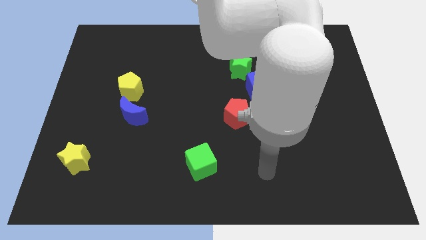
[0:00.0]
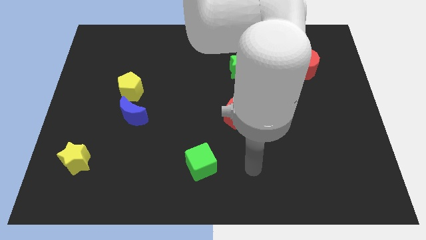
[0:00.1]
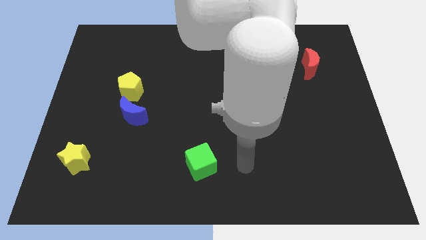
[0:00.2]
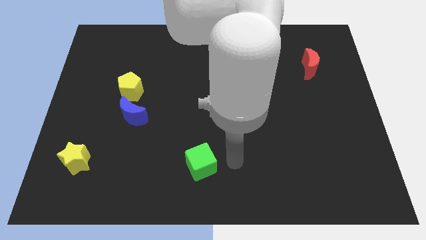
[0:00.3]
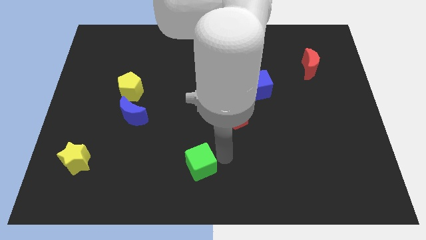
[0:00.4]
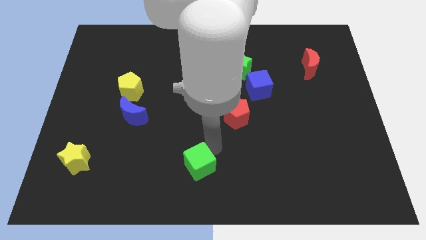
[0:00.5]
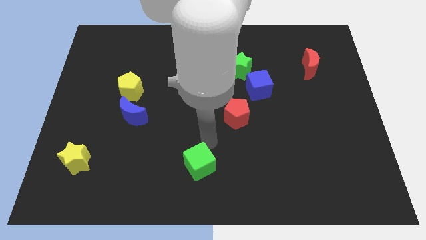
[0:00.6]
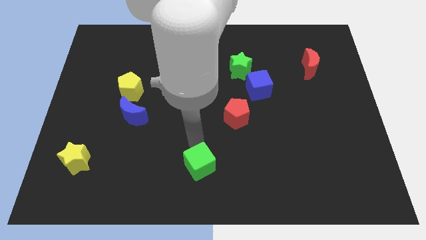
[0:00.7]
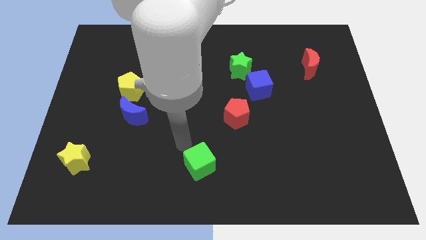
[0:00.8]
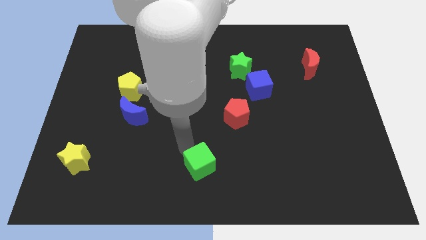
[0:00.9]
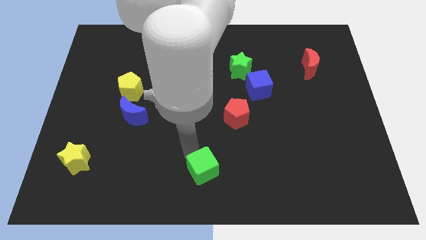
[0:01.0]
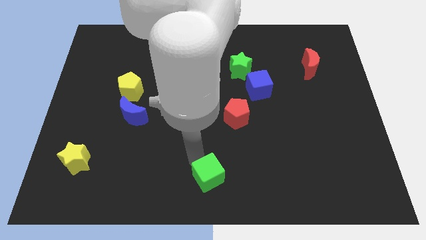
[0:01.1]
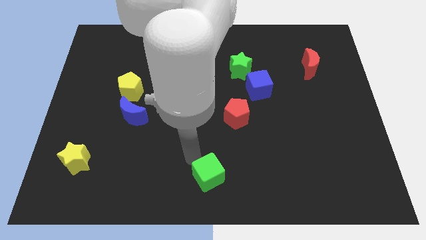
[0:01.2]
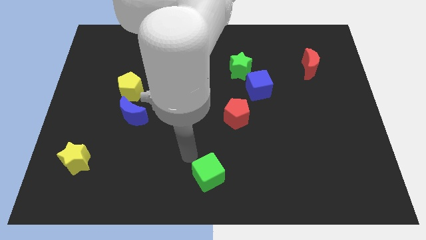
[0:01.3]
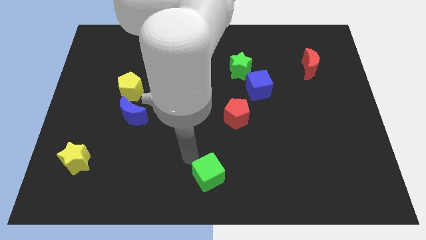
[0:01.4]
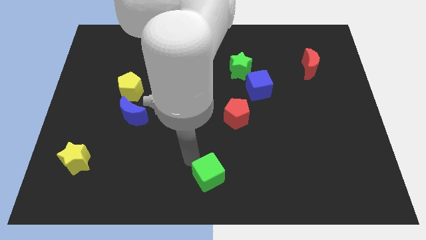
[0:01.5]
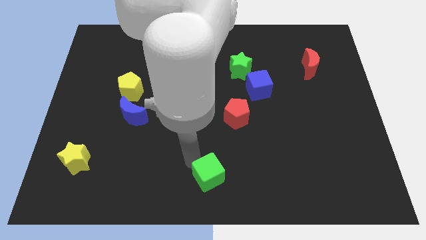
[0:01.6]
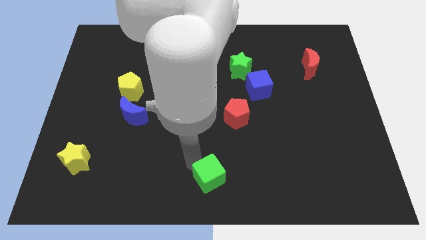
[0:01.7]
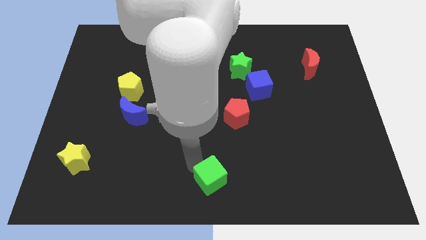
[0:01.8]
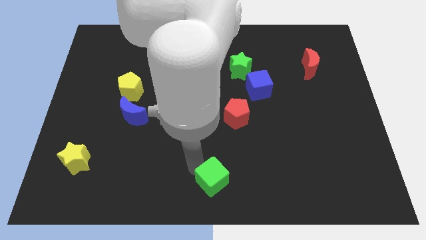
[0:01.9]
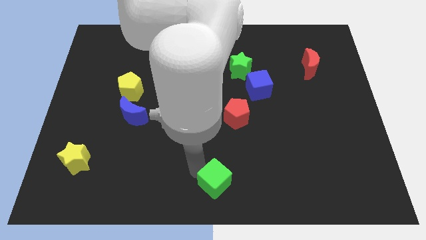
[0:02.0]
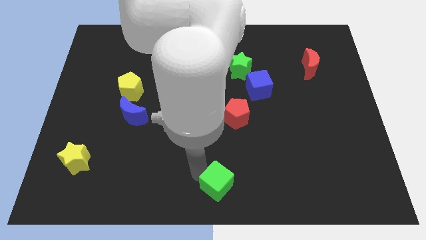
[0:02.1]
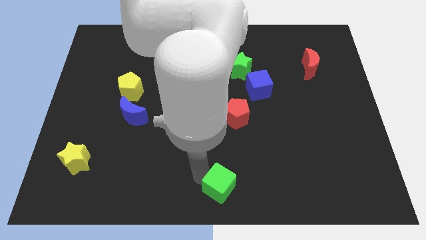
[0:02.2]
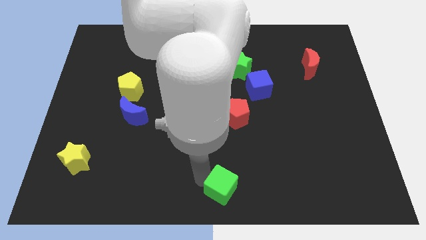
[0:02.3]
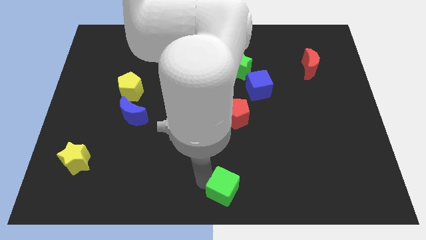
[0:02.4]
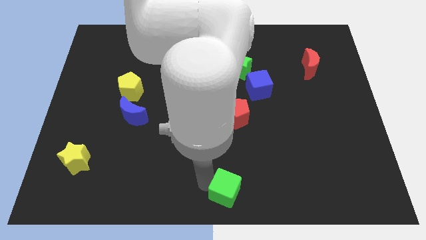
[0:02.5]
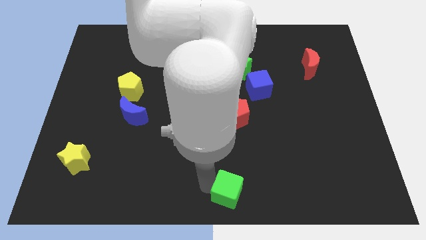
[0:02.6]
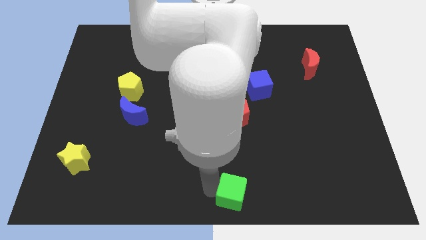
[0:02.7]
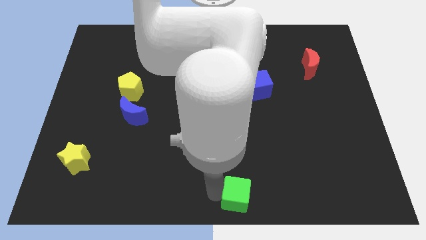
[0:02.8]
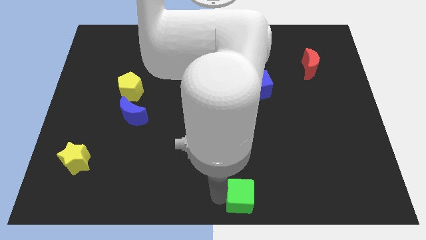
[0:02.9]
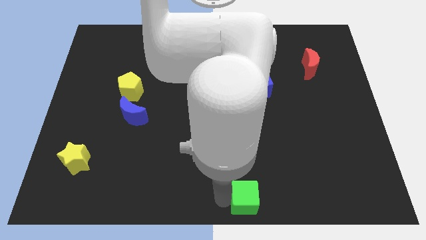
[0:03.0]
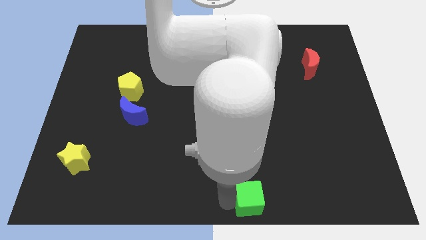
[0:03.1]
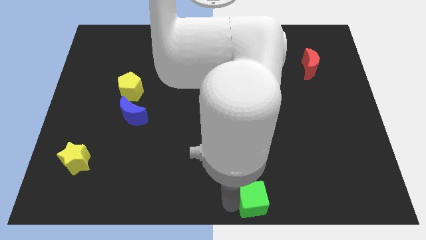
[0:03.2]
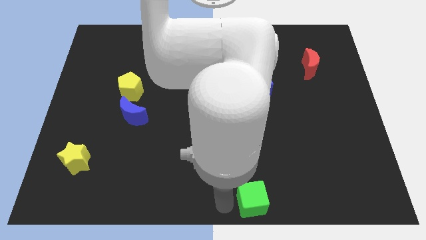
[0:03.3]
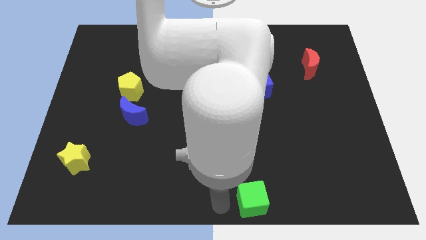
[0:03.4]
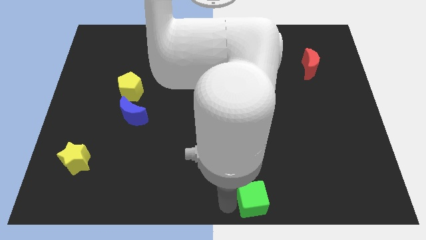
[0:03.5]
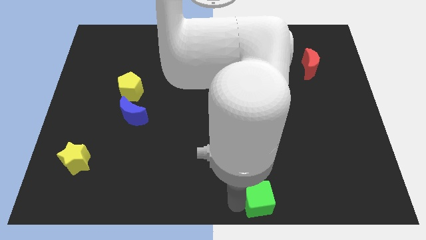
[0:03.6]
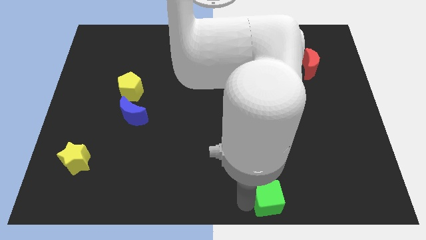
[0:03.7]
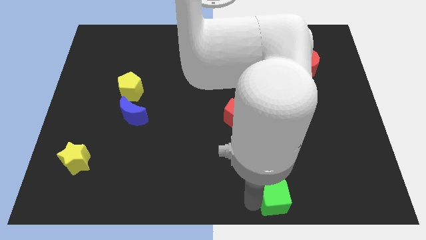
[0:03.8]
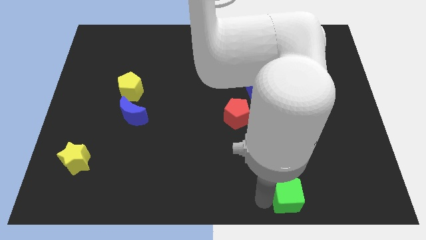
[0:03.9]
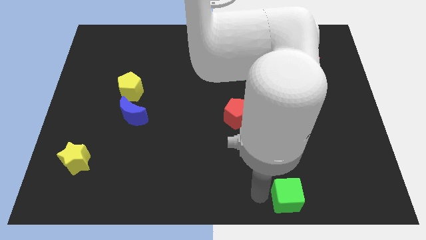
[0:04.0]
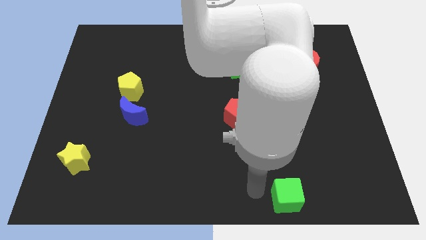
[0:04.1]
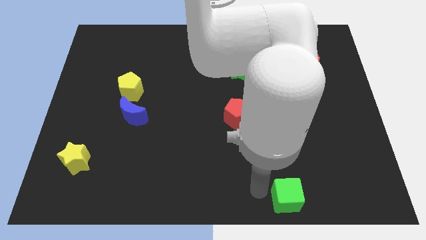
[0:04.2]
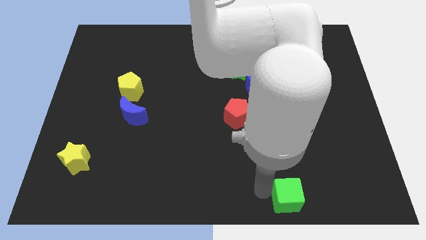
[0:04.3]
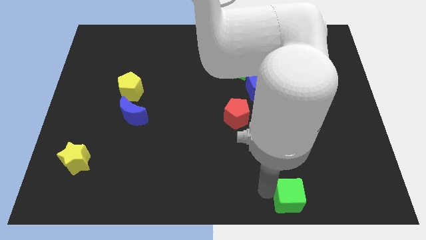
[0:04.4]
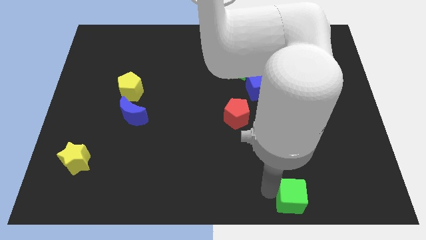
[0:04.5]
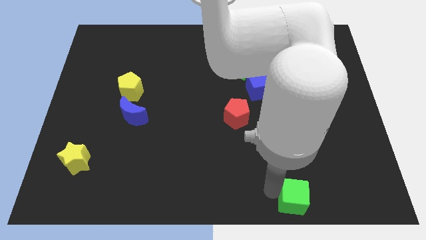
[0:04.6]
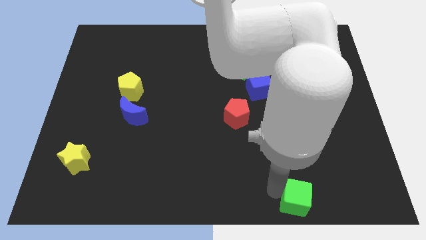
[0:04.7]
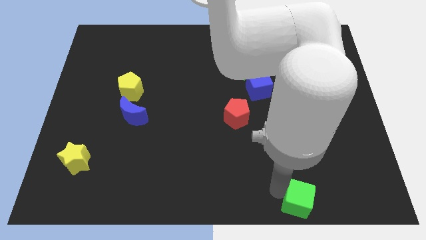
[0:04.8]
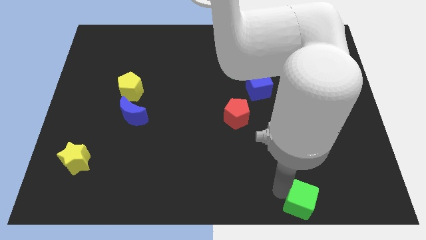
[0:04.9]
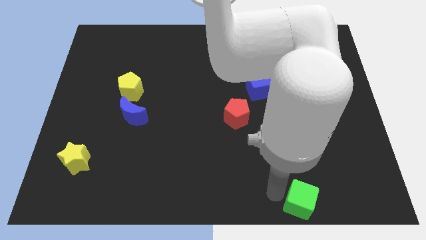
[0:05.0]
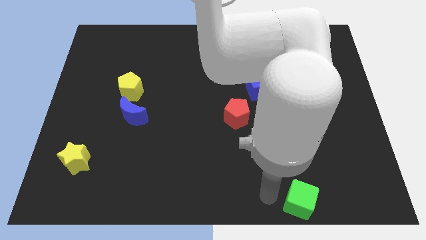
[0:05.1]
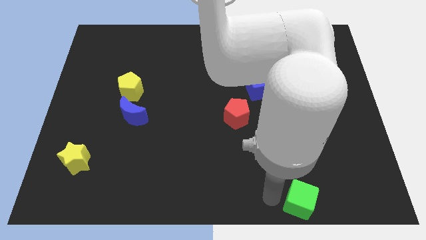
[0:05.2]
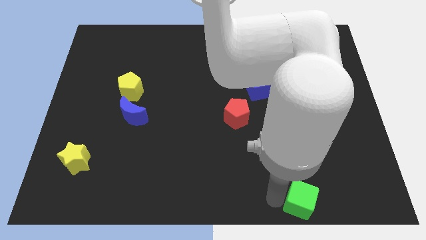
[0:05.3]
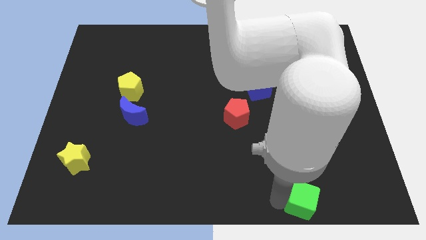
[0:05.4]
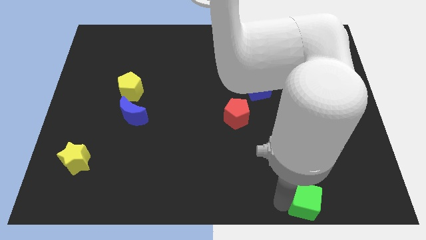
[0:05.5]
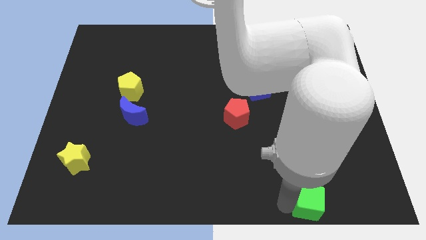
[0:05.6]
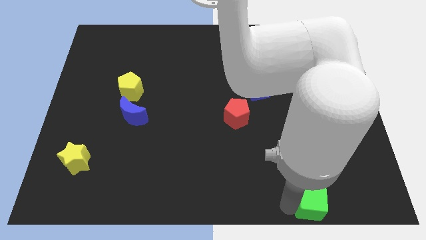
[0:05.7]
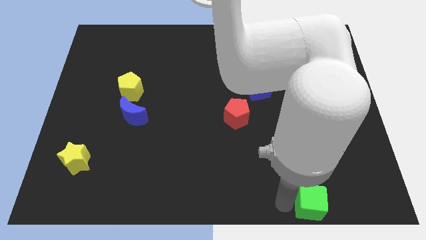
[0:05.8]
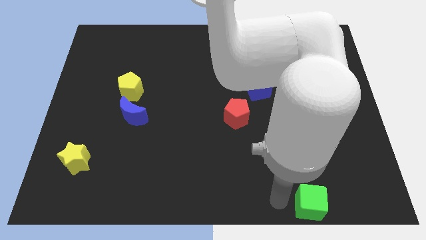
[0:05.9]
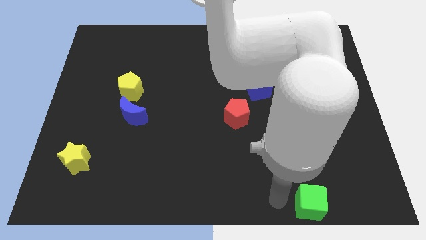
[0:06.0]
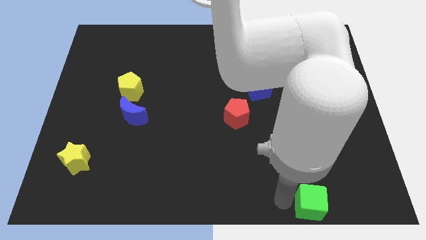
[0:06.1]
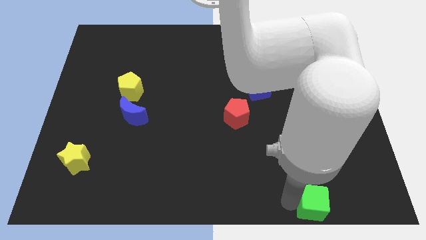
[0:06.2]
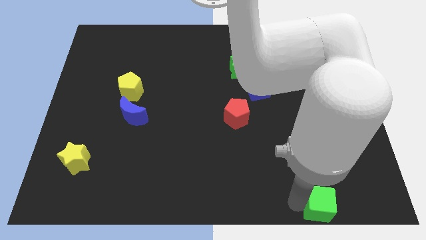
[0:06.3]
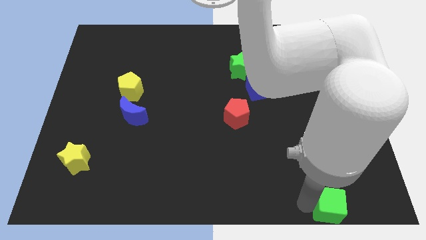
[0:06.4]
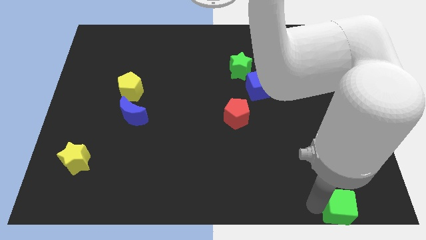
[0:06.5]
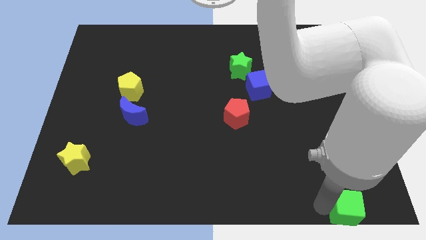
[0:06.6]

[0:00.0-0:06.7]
slide the green cube to the bottom right of the board
